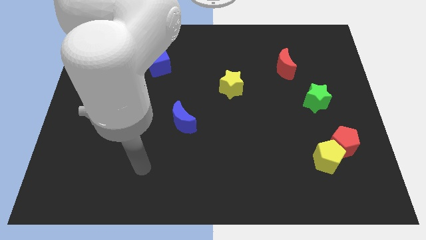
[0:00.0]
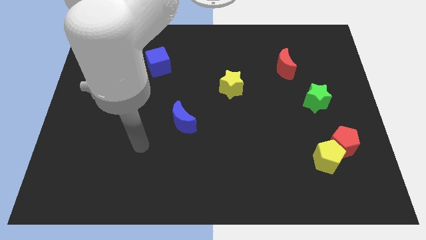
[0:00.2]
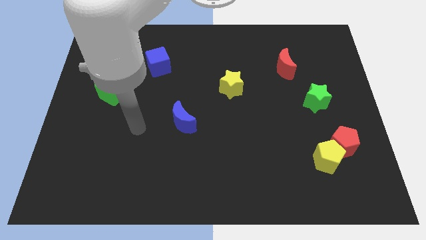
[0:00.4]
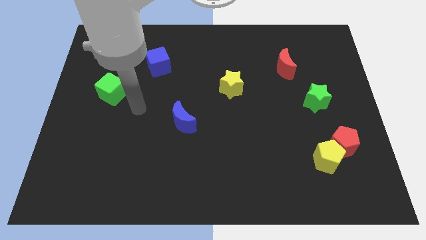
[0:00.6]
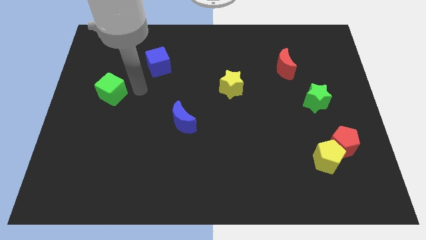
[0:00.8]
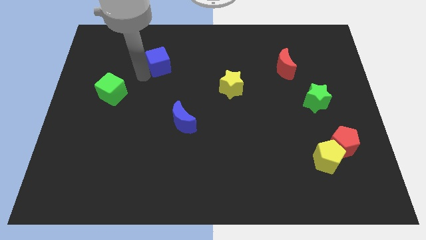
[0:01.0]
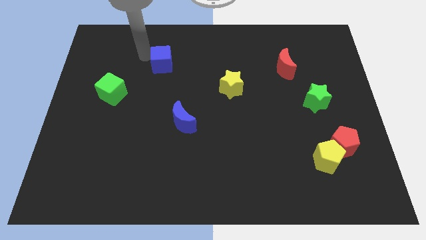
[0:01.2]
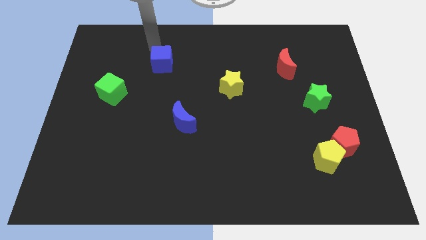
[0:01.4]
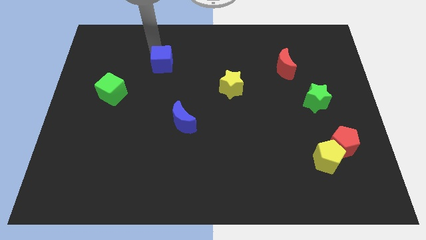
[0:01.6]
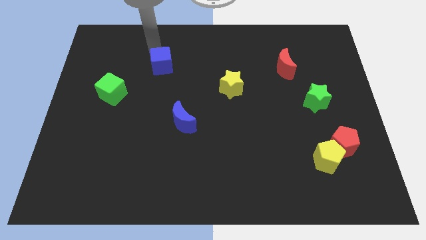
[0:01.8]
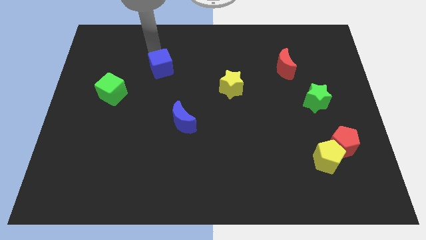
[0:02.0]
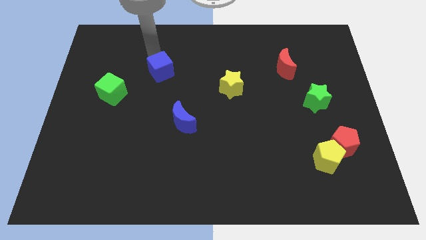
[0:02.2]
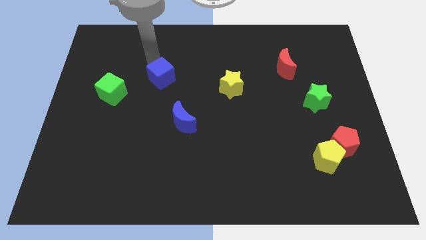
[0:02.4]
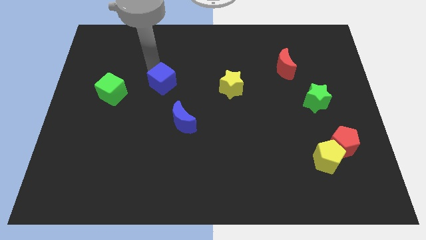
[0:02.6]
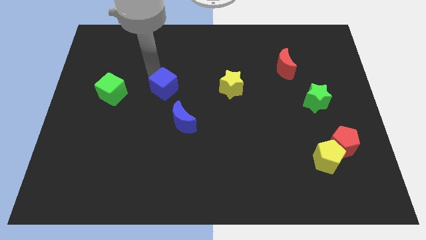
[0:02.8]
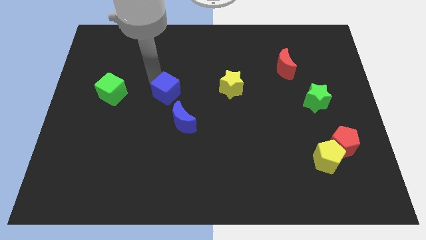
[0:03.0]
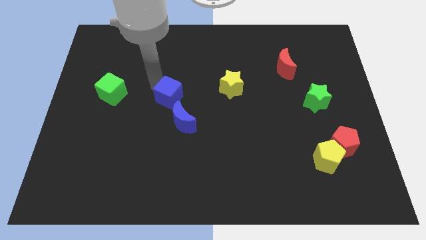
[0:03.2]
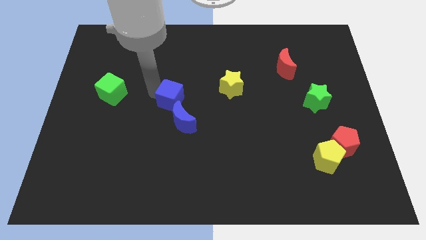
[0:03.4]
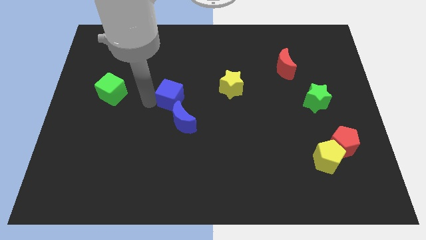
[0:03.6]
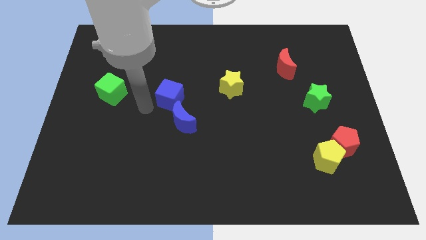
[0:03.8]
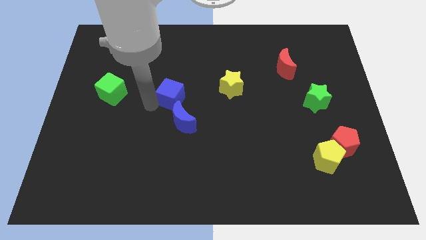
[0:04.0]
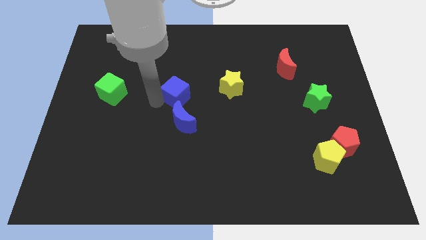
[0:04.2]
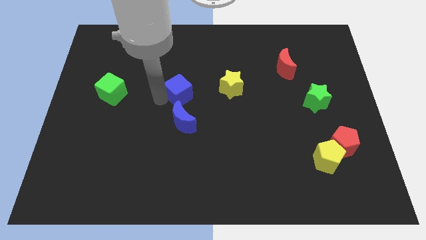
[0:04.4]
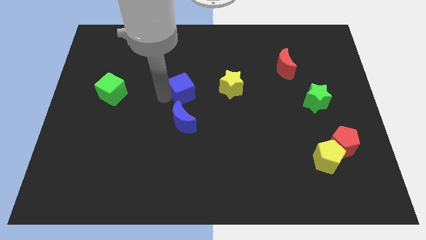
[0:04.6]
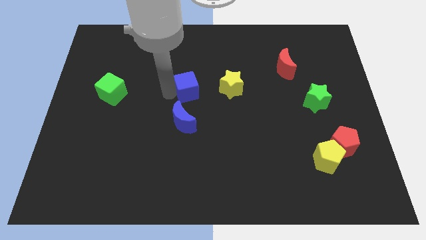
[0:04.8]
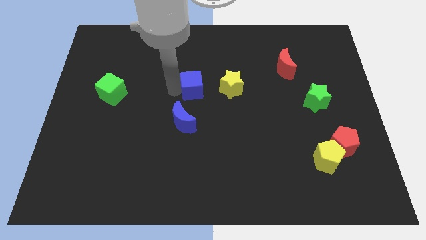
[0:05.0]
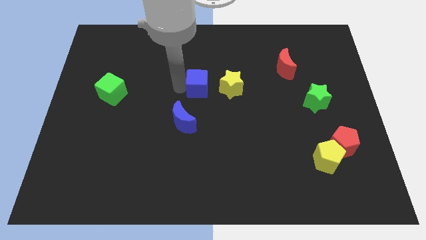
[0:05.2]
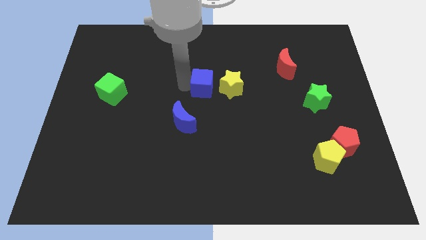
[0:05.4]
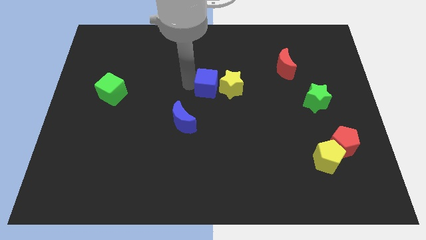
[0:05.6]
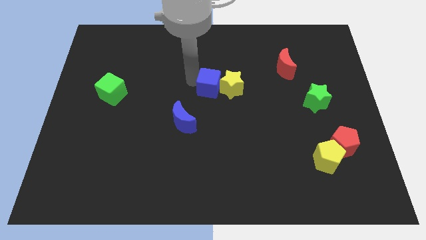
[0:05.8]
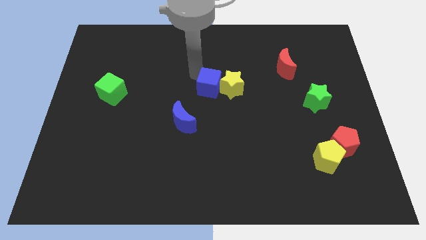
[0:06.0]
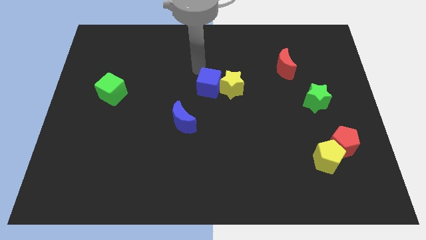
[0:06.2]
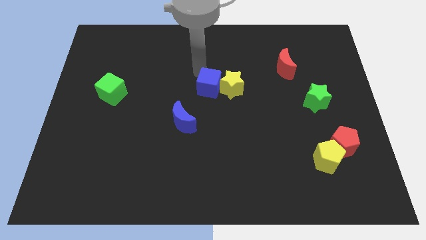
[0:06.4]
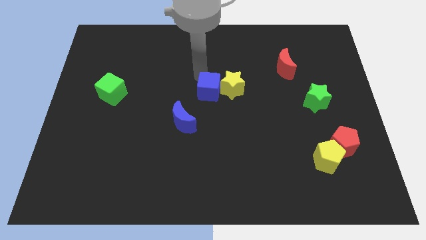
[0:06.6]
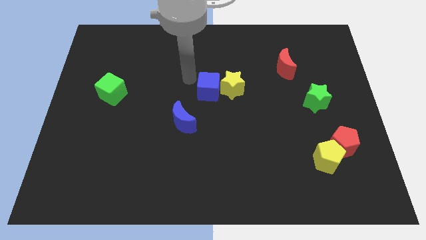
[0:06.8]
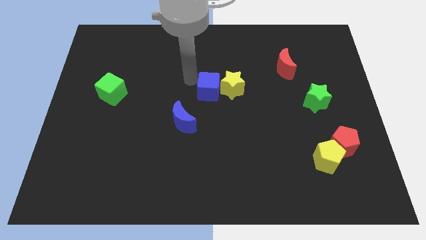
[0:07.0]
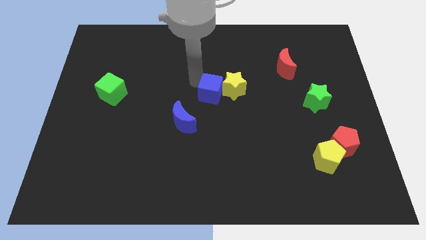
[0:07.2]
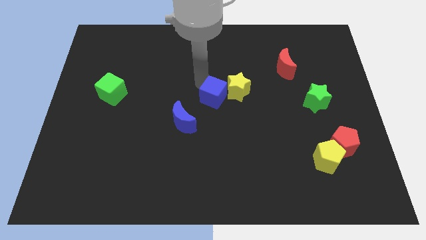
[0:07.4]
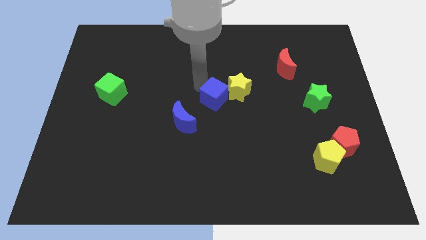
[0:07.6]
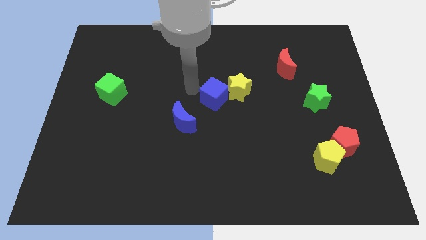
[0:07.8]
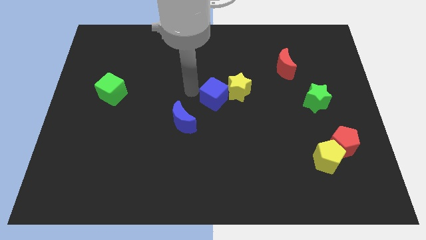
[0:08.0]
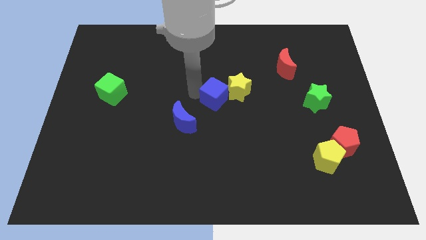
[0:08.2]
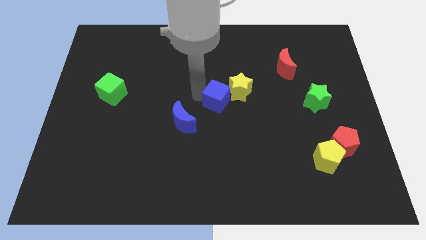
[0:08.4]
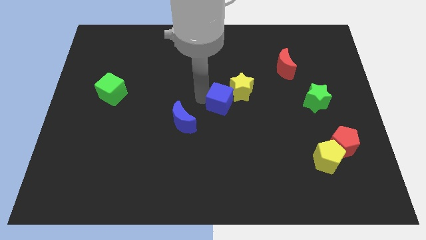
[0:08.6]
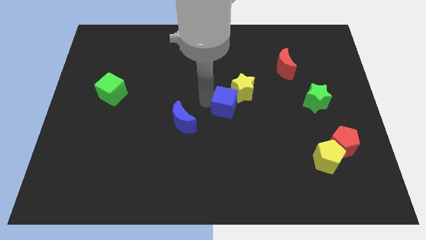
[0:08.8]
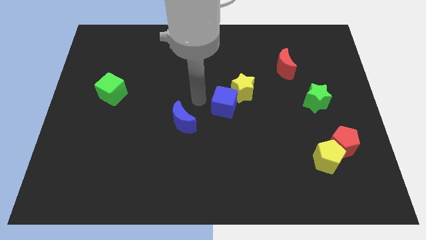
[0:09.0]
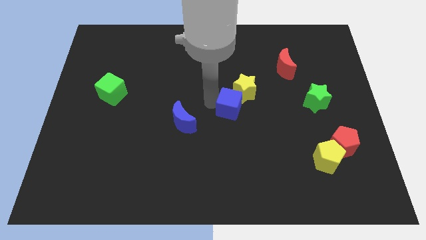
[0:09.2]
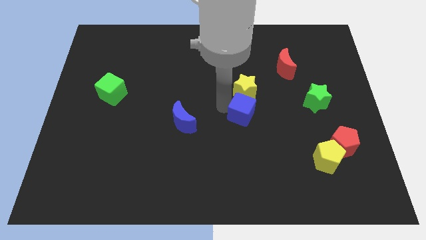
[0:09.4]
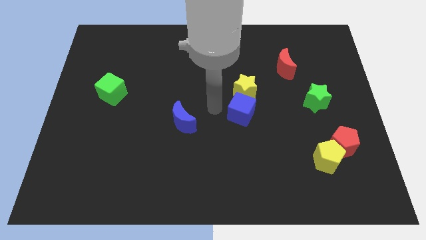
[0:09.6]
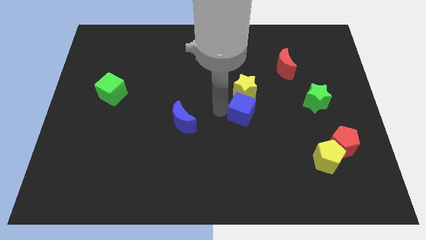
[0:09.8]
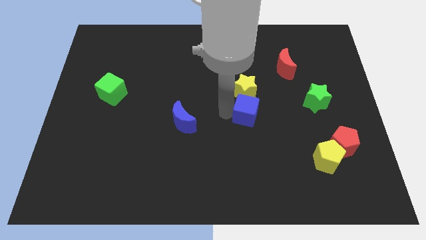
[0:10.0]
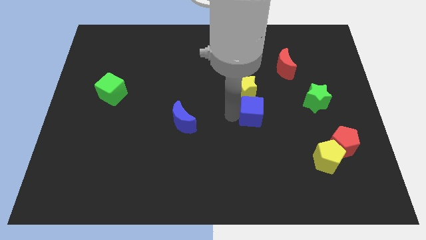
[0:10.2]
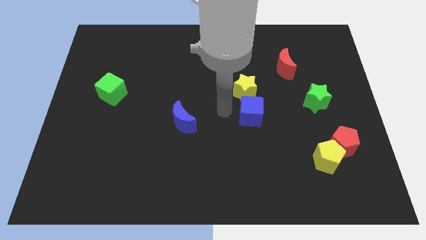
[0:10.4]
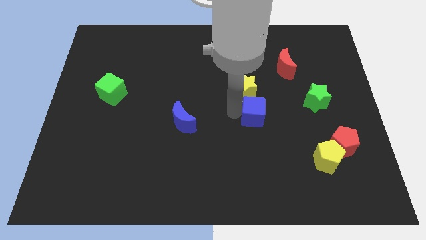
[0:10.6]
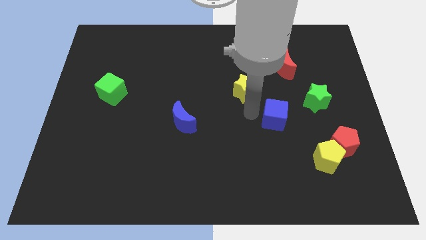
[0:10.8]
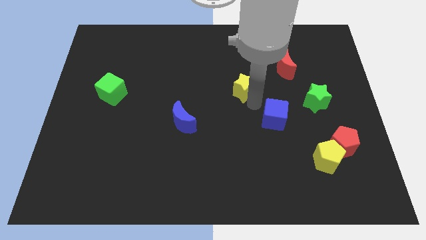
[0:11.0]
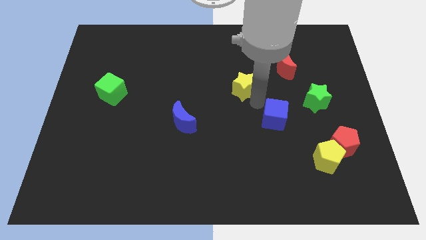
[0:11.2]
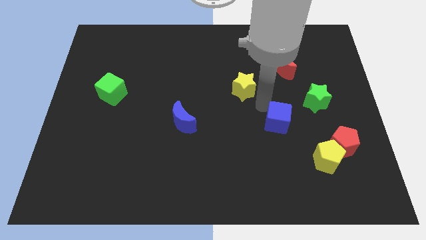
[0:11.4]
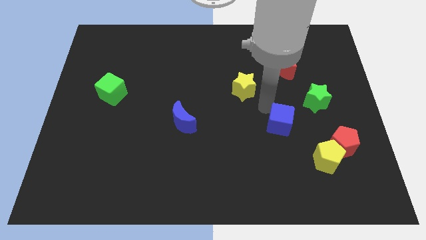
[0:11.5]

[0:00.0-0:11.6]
move the blue cube to the top left of the yellow pentagon
